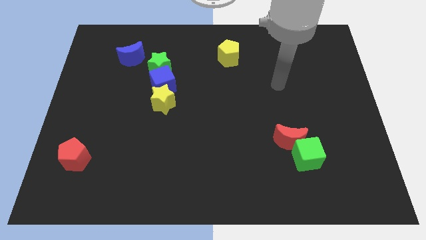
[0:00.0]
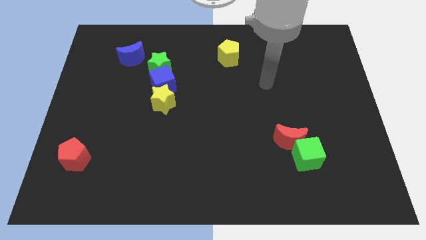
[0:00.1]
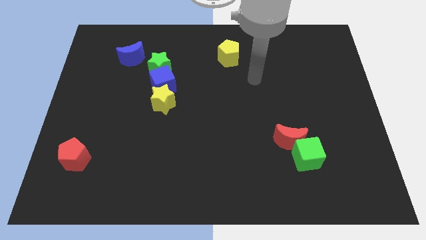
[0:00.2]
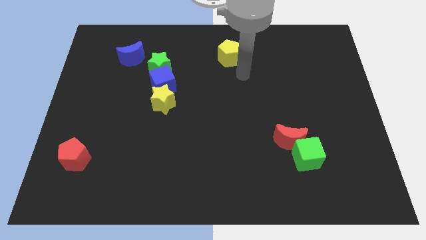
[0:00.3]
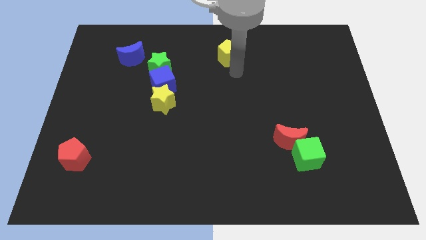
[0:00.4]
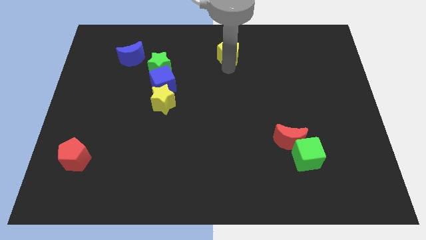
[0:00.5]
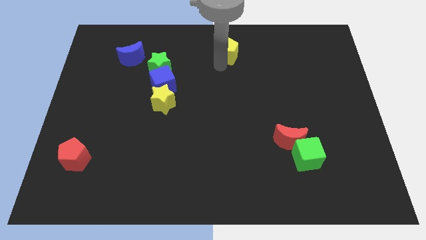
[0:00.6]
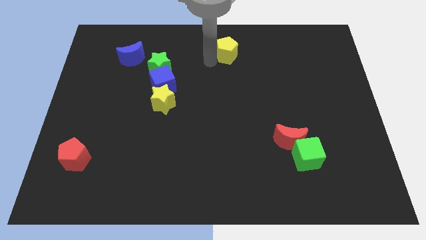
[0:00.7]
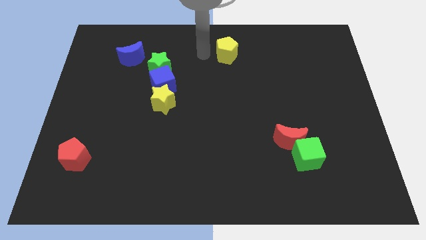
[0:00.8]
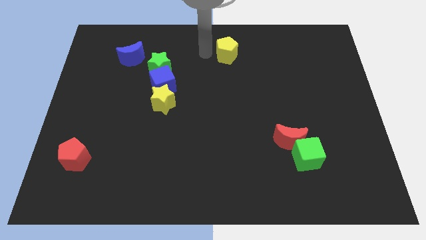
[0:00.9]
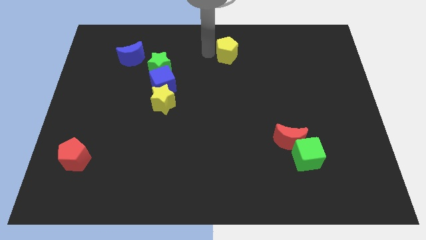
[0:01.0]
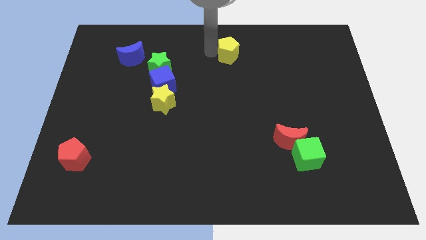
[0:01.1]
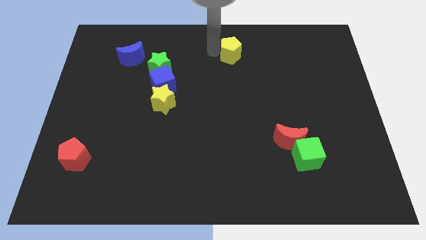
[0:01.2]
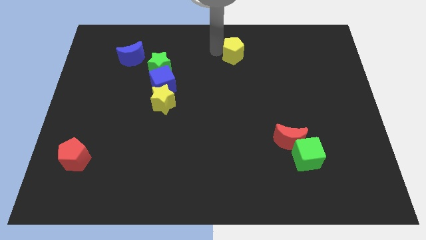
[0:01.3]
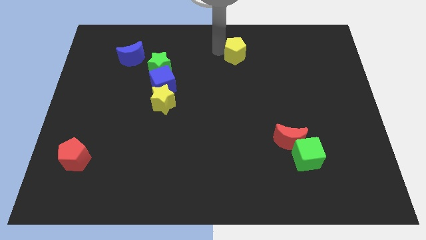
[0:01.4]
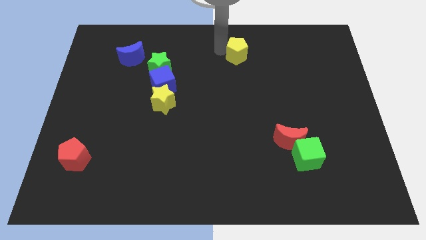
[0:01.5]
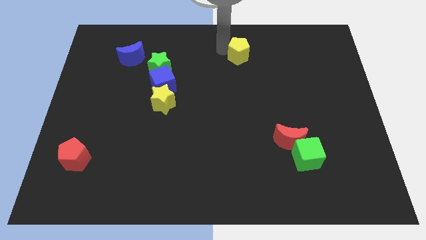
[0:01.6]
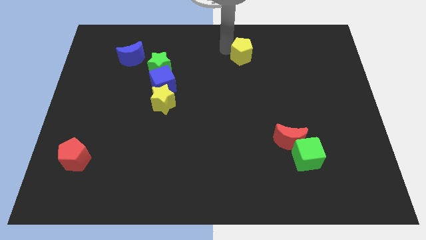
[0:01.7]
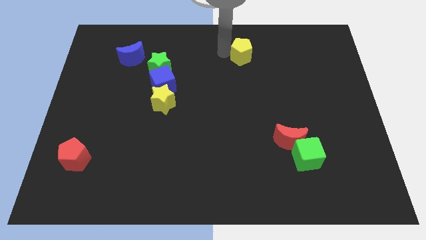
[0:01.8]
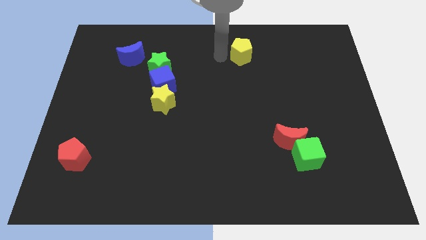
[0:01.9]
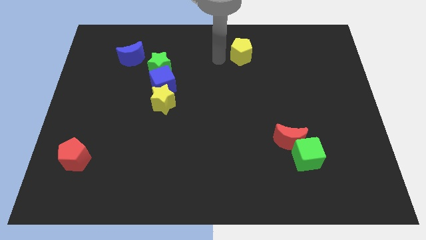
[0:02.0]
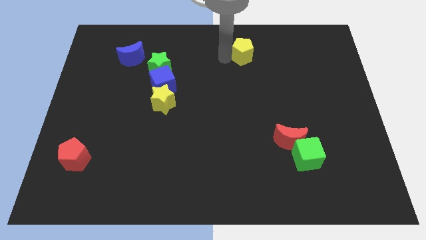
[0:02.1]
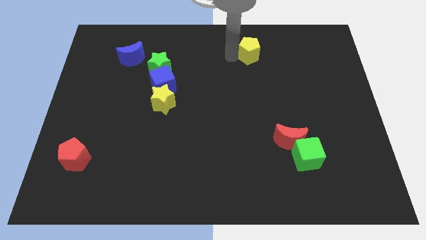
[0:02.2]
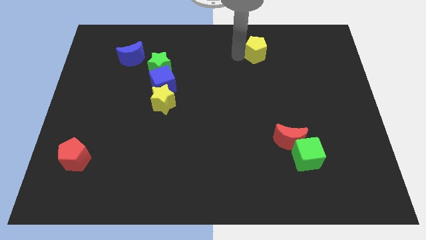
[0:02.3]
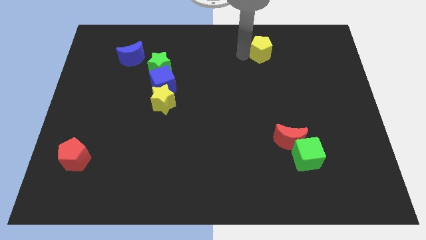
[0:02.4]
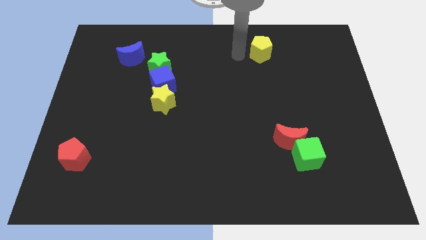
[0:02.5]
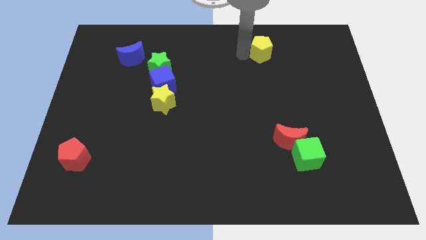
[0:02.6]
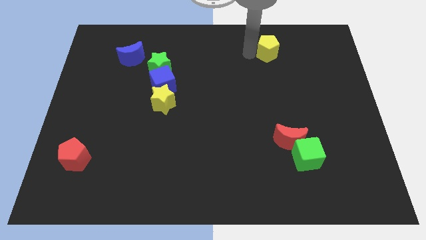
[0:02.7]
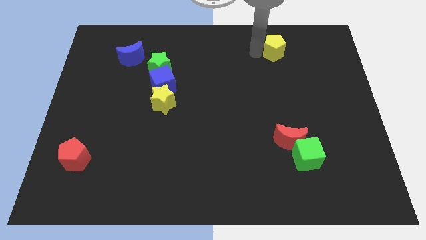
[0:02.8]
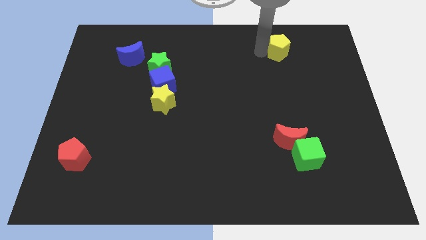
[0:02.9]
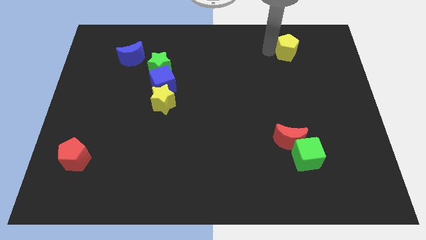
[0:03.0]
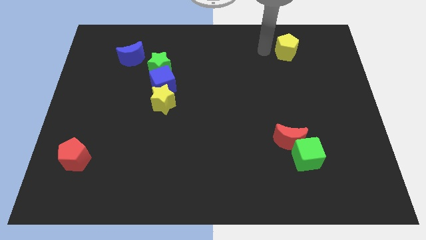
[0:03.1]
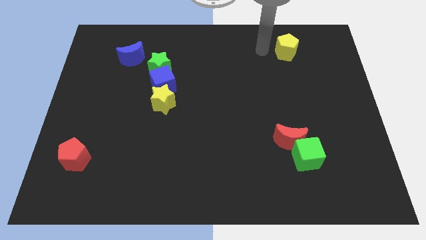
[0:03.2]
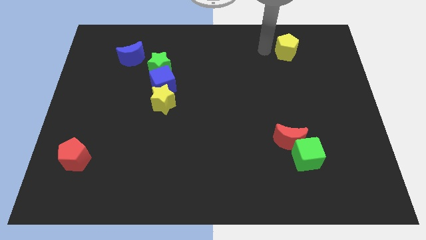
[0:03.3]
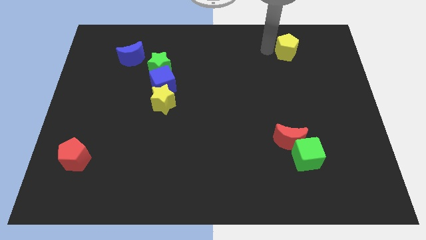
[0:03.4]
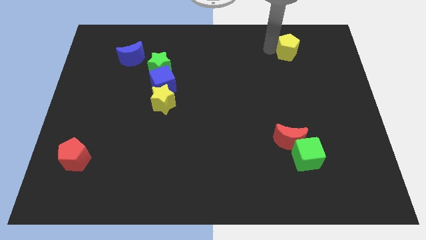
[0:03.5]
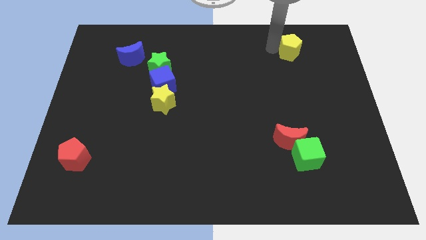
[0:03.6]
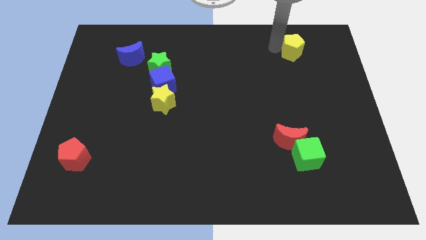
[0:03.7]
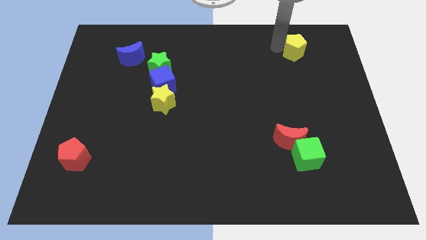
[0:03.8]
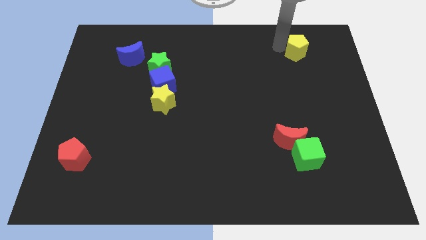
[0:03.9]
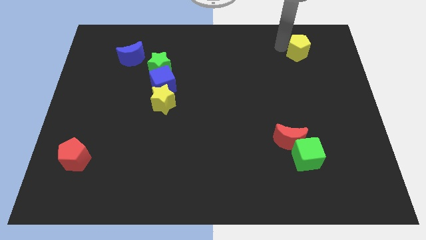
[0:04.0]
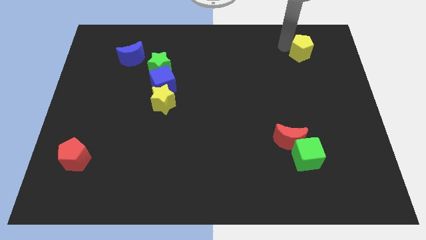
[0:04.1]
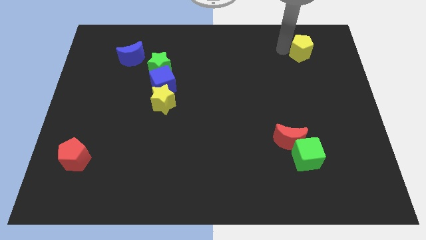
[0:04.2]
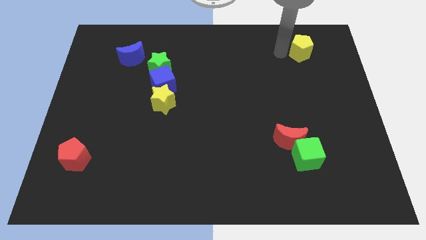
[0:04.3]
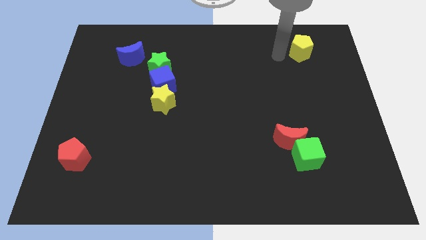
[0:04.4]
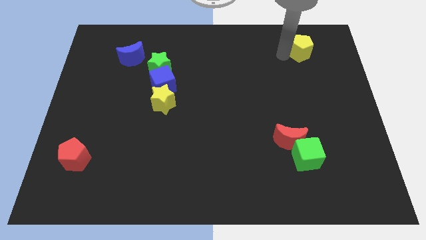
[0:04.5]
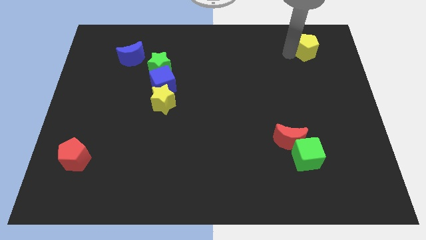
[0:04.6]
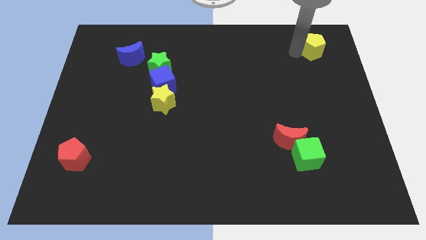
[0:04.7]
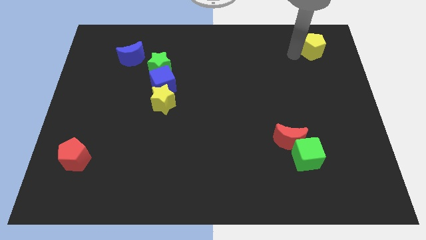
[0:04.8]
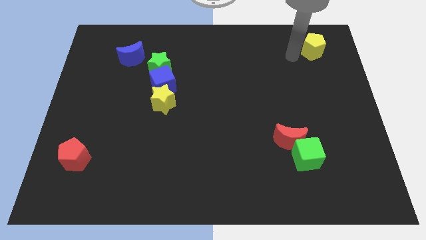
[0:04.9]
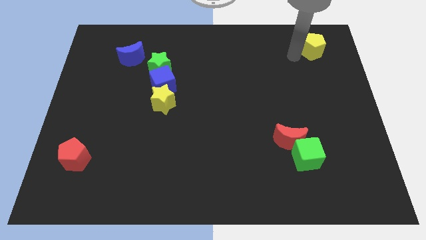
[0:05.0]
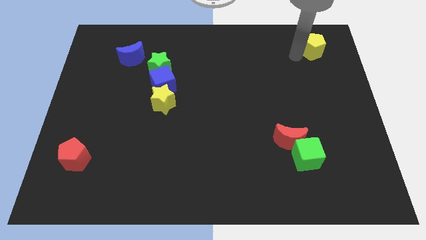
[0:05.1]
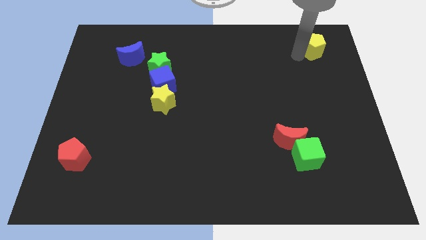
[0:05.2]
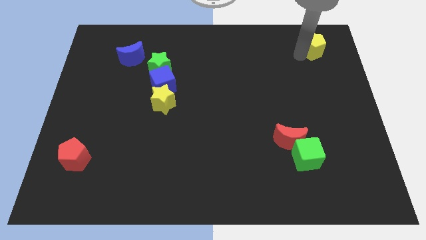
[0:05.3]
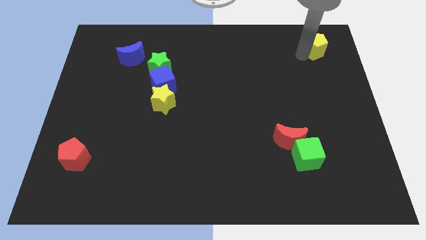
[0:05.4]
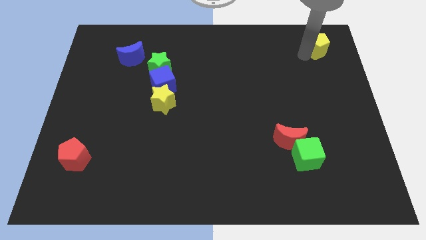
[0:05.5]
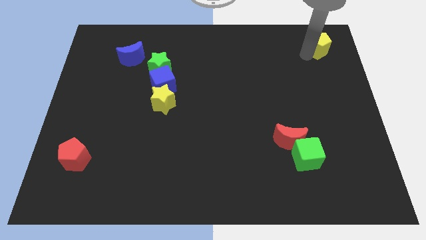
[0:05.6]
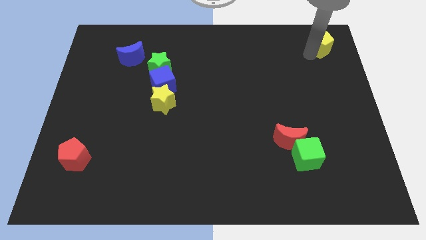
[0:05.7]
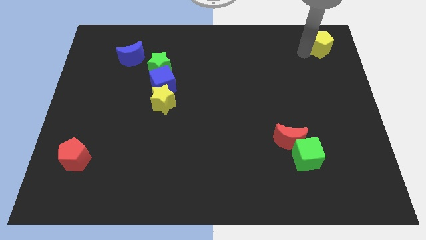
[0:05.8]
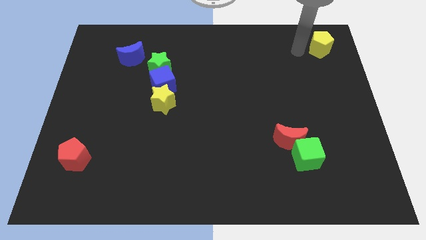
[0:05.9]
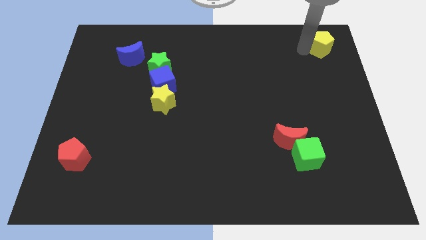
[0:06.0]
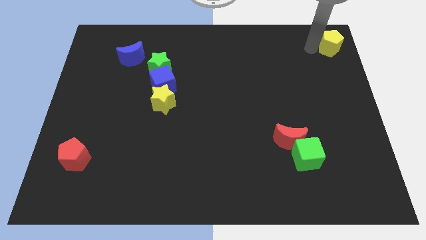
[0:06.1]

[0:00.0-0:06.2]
slide the yellow pentagon to the upper right corner

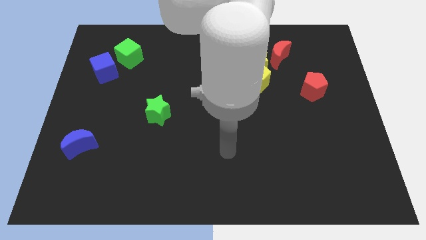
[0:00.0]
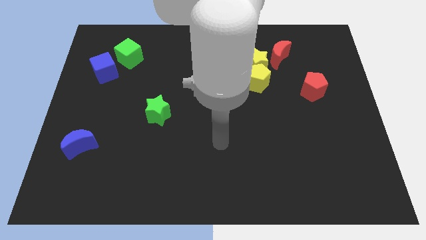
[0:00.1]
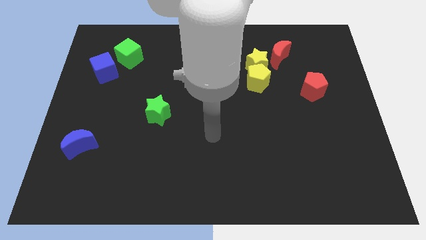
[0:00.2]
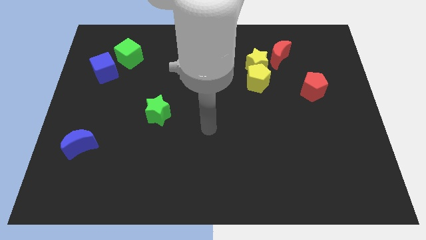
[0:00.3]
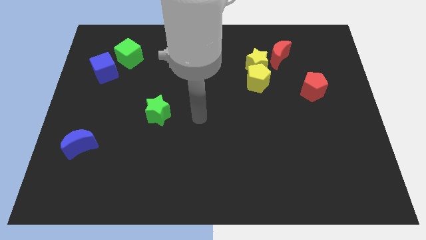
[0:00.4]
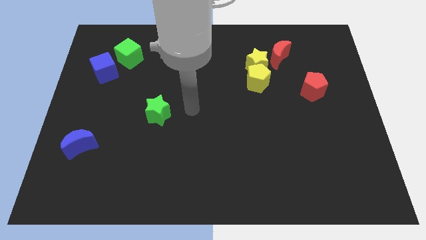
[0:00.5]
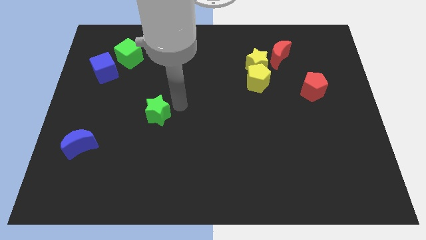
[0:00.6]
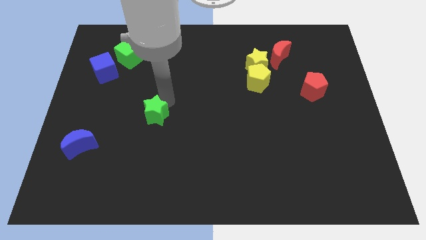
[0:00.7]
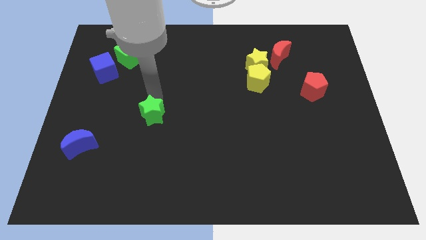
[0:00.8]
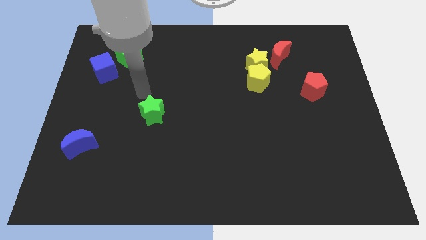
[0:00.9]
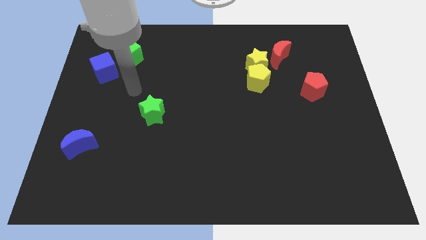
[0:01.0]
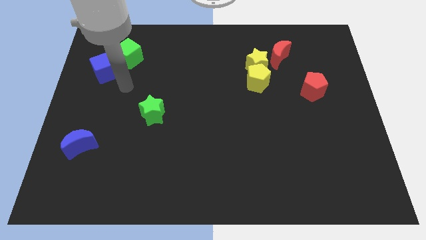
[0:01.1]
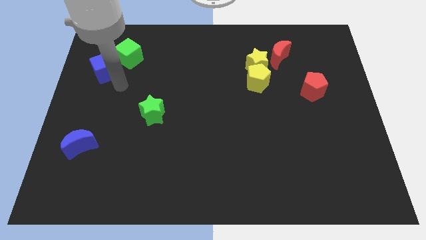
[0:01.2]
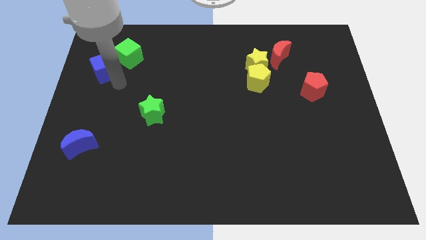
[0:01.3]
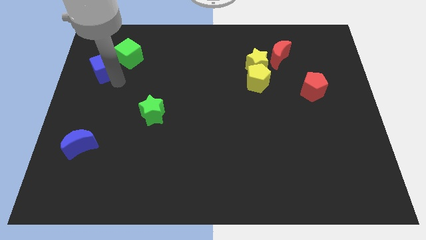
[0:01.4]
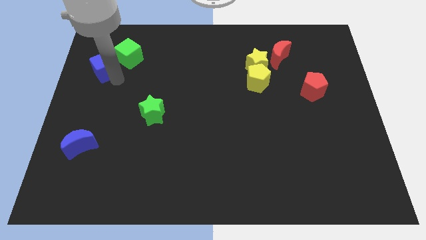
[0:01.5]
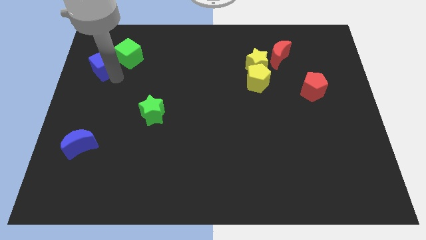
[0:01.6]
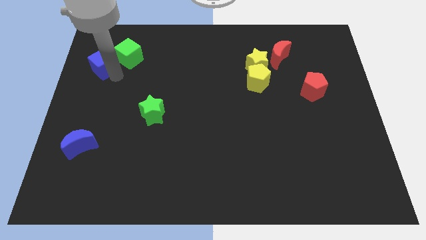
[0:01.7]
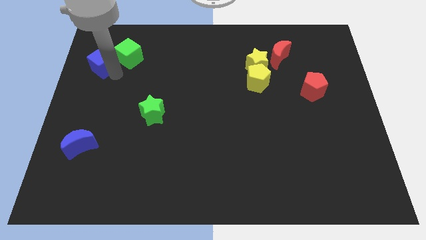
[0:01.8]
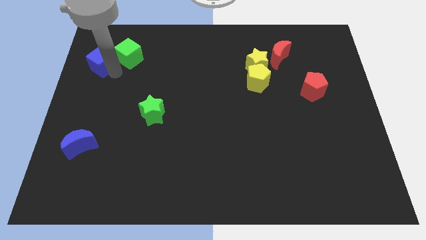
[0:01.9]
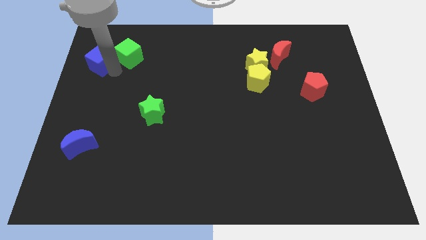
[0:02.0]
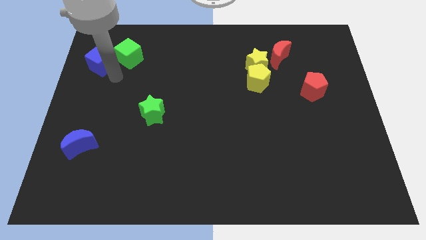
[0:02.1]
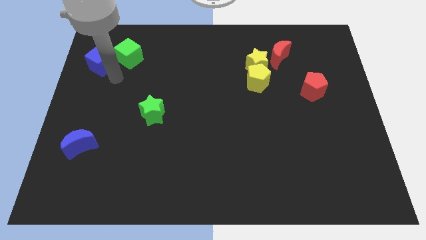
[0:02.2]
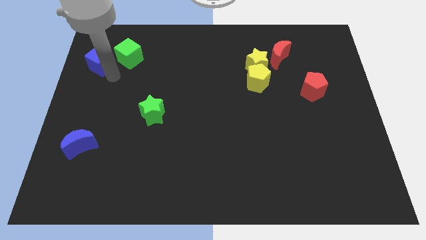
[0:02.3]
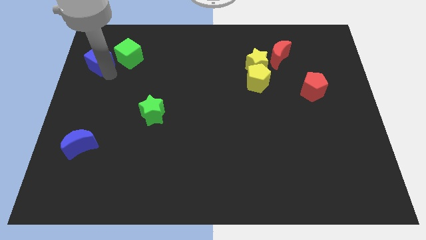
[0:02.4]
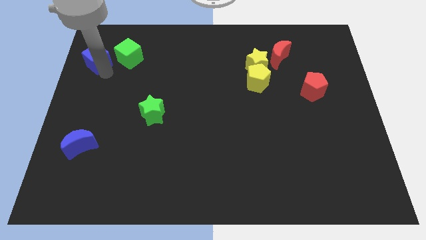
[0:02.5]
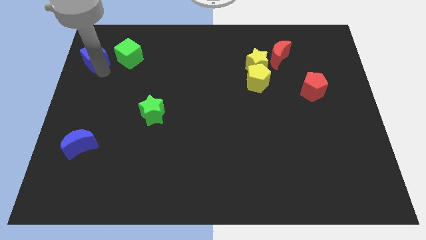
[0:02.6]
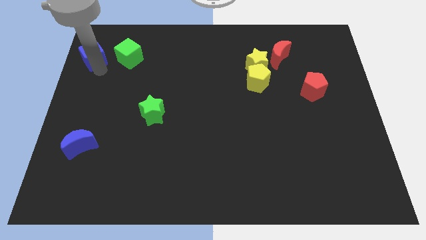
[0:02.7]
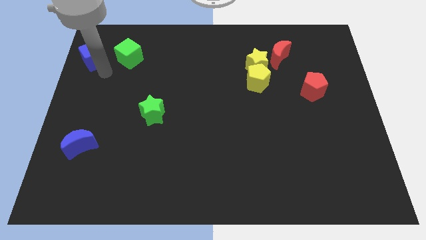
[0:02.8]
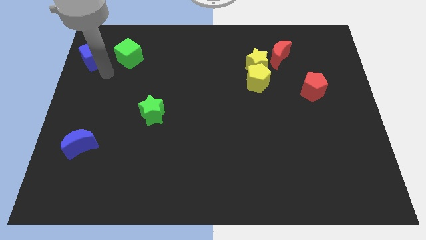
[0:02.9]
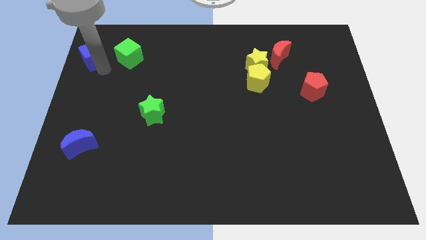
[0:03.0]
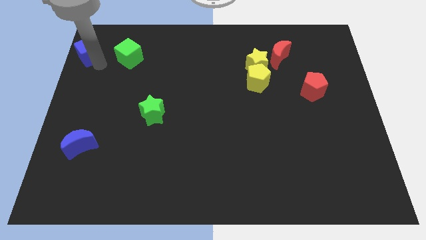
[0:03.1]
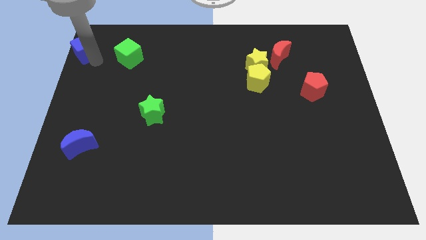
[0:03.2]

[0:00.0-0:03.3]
put the blue cube to the top left
